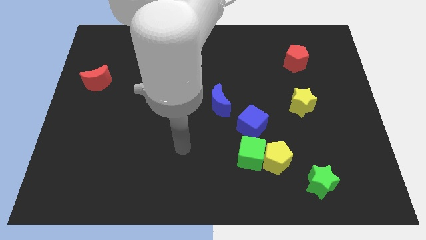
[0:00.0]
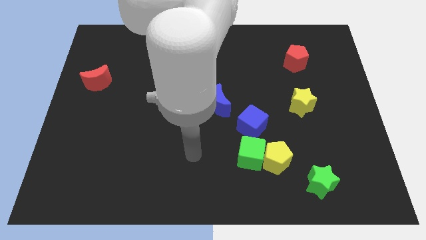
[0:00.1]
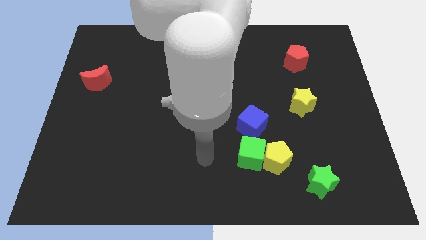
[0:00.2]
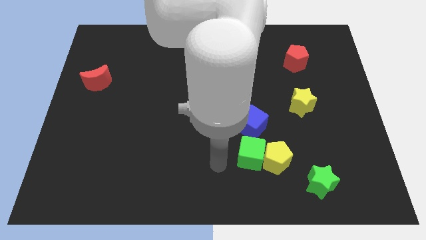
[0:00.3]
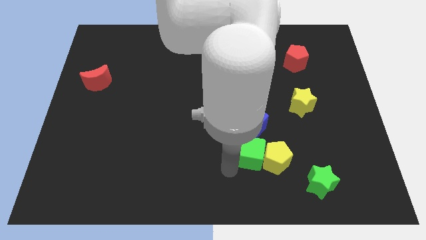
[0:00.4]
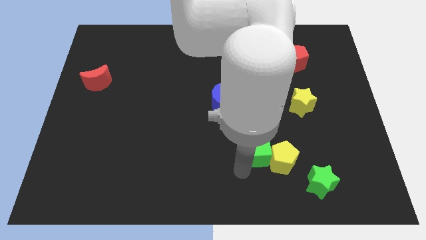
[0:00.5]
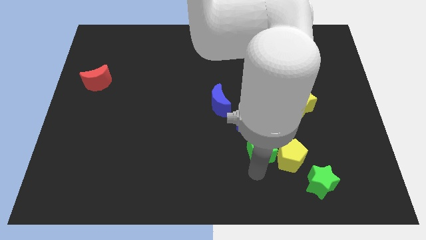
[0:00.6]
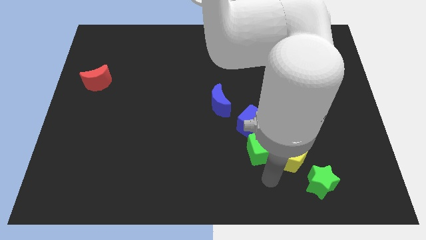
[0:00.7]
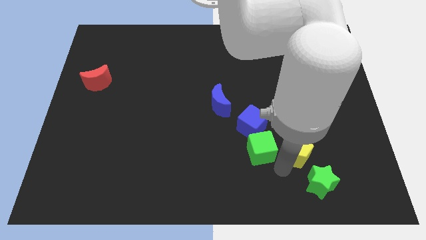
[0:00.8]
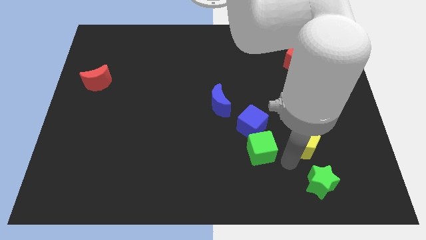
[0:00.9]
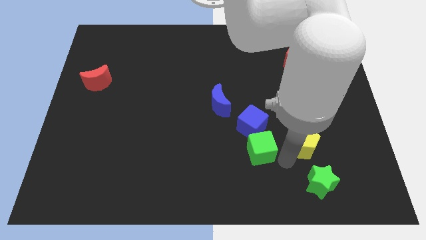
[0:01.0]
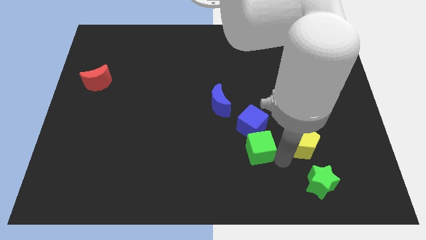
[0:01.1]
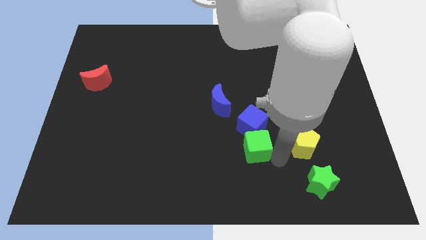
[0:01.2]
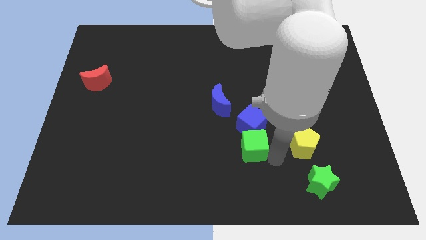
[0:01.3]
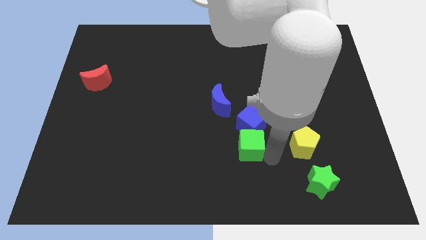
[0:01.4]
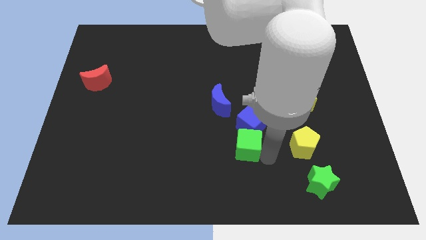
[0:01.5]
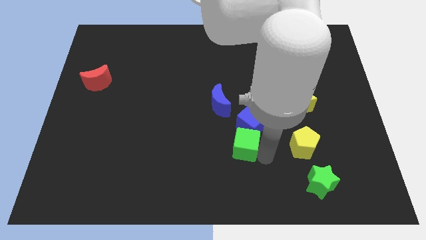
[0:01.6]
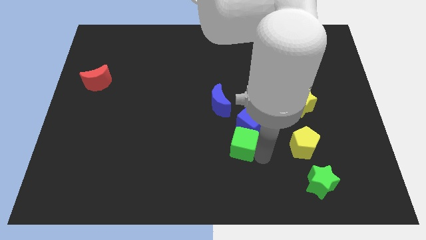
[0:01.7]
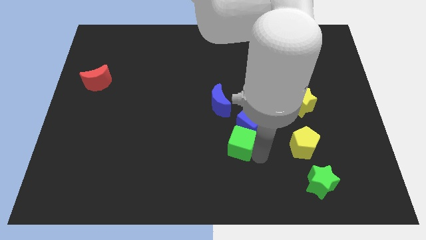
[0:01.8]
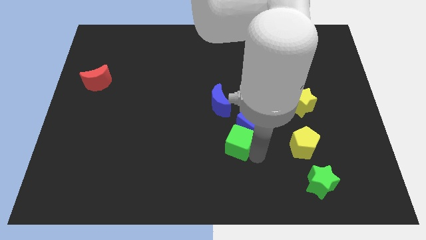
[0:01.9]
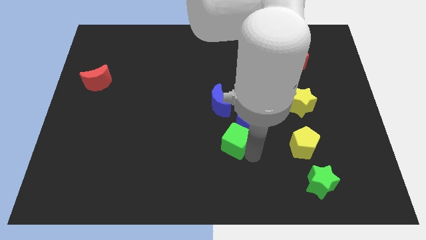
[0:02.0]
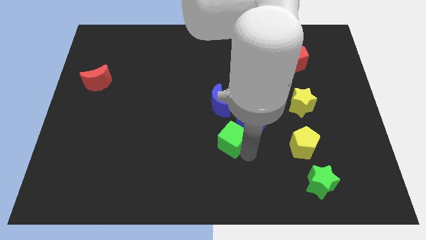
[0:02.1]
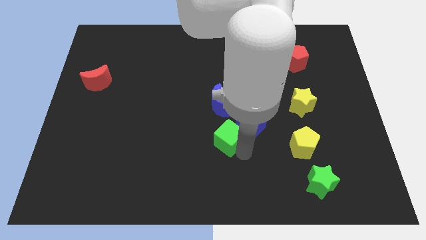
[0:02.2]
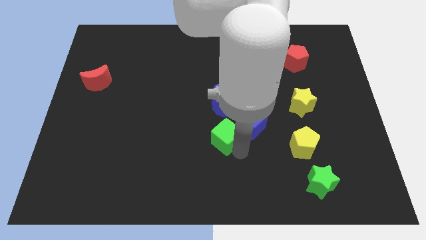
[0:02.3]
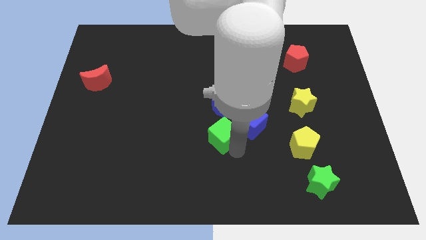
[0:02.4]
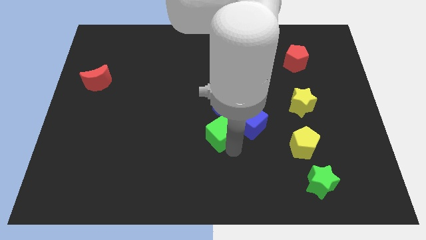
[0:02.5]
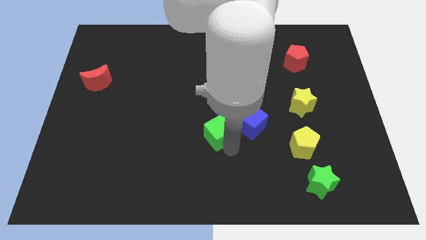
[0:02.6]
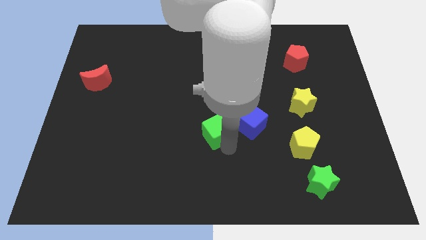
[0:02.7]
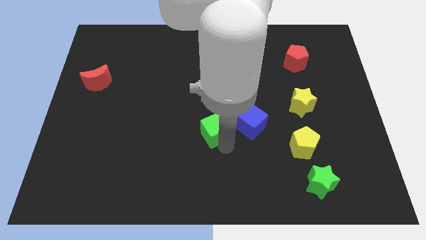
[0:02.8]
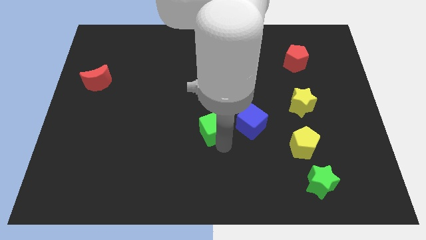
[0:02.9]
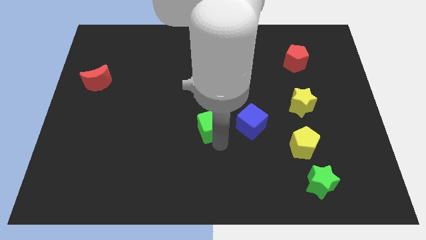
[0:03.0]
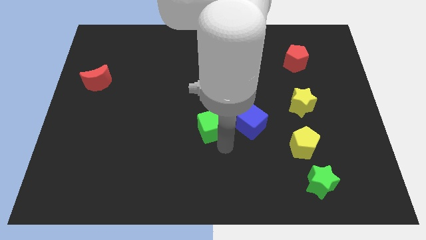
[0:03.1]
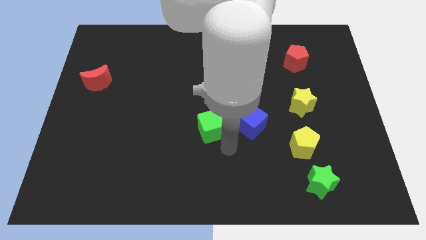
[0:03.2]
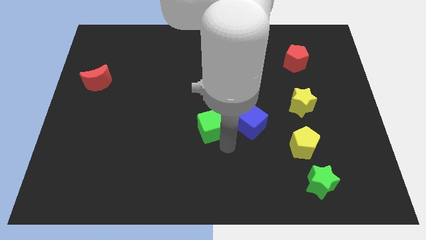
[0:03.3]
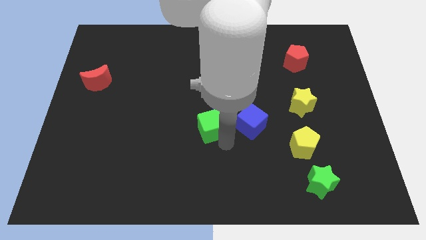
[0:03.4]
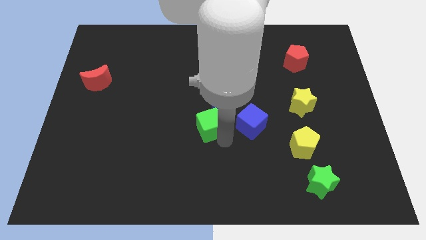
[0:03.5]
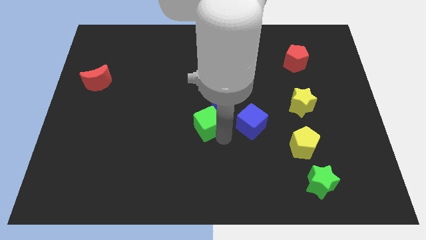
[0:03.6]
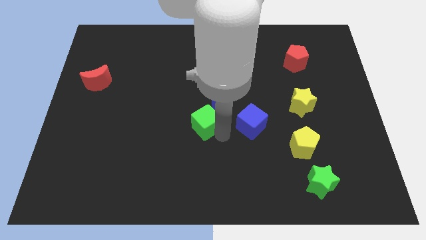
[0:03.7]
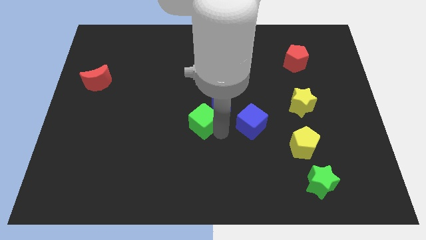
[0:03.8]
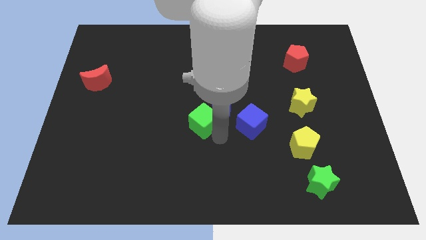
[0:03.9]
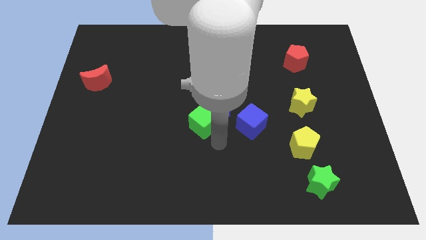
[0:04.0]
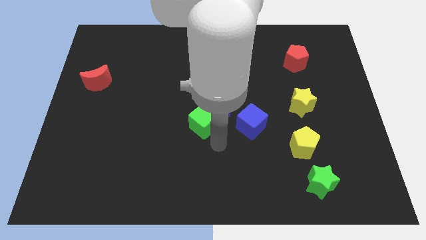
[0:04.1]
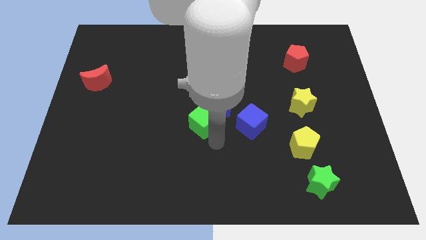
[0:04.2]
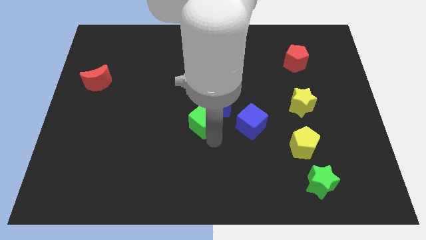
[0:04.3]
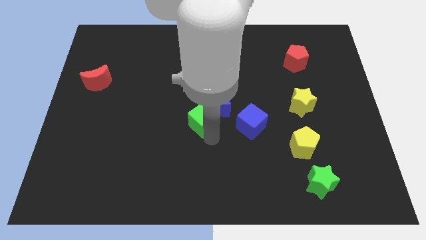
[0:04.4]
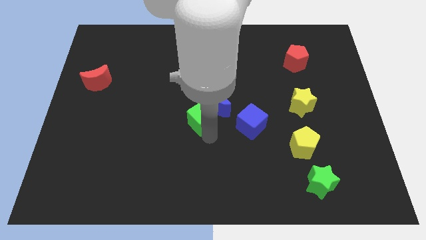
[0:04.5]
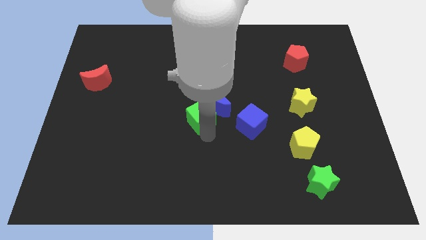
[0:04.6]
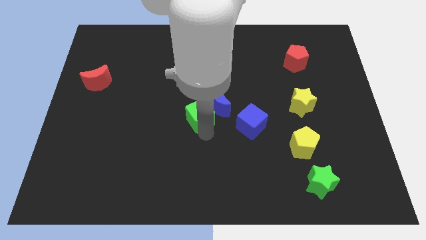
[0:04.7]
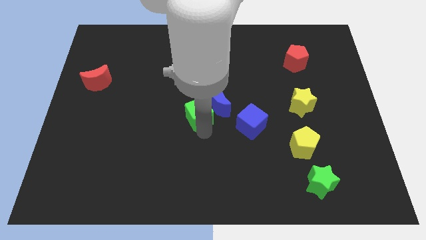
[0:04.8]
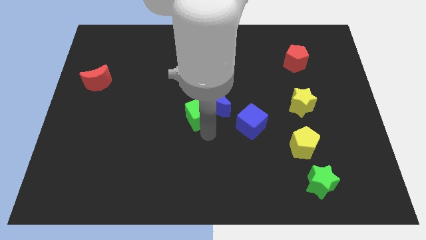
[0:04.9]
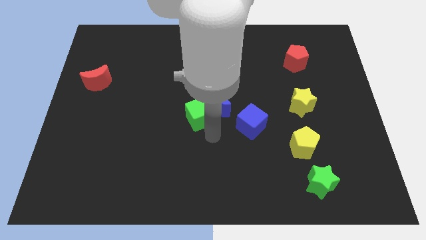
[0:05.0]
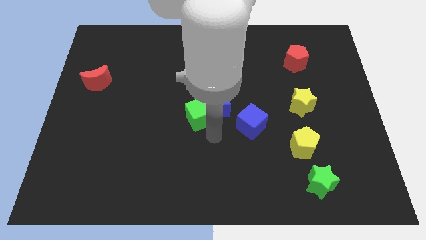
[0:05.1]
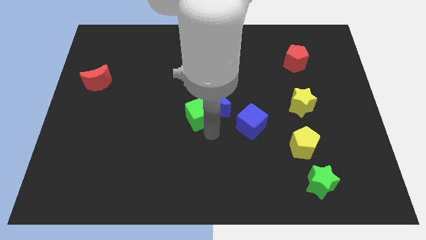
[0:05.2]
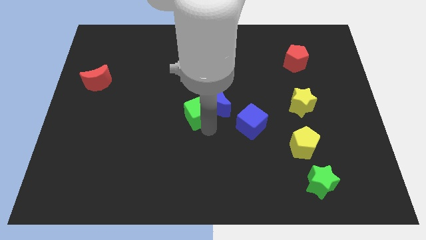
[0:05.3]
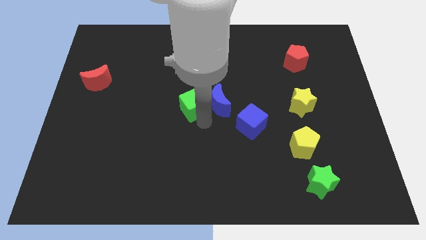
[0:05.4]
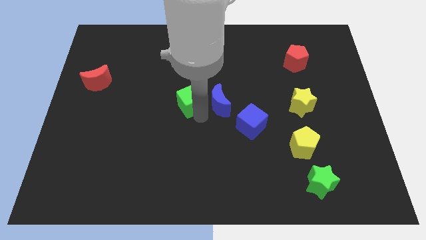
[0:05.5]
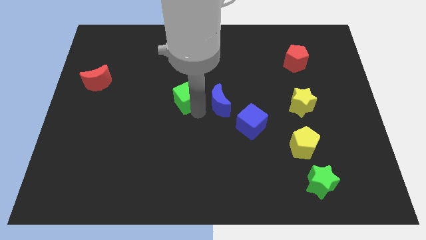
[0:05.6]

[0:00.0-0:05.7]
move the green cube upwards and to the left diagonally

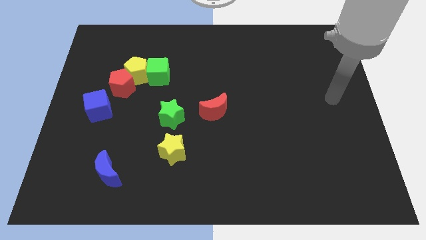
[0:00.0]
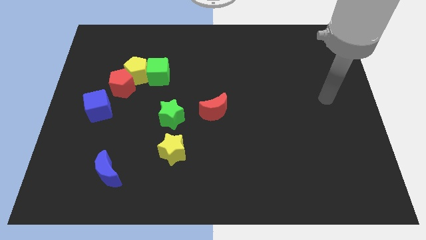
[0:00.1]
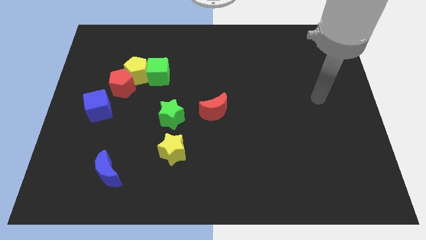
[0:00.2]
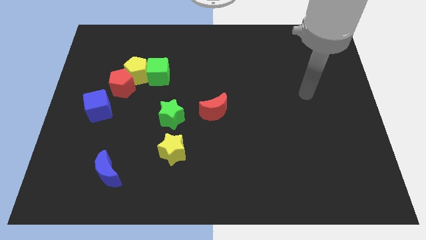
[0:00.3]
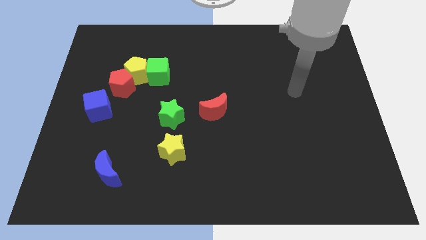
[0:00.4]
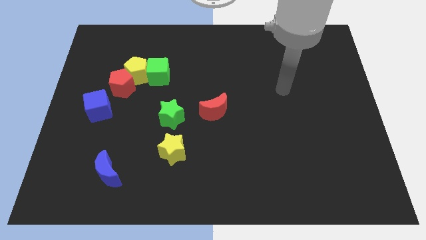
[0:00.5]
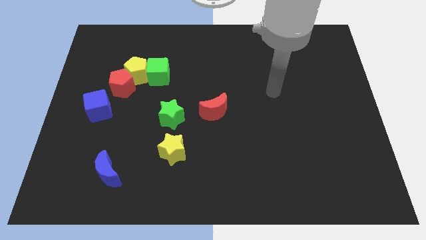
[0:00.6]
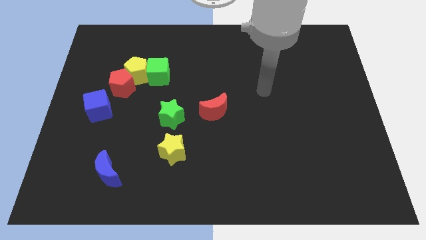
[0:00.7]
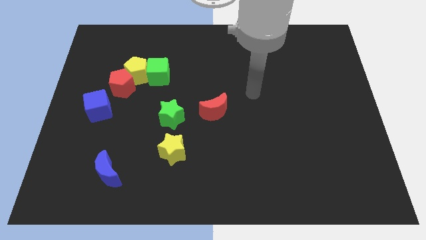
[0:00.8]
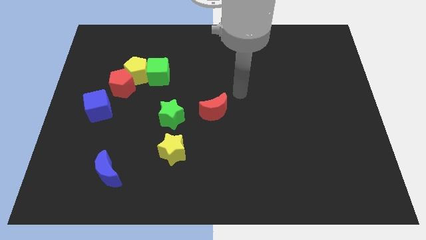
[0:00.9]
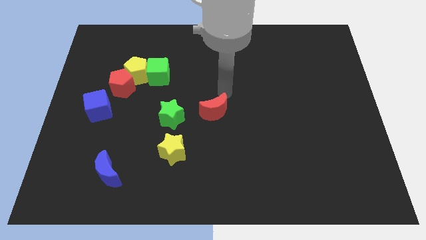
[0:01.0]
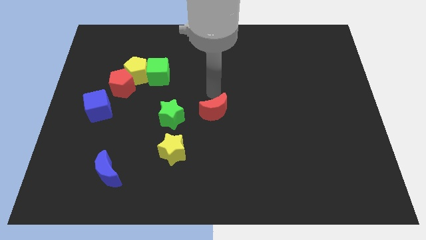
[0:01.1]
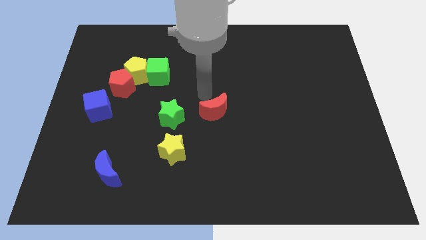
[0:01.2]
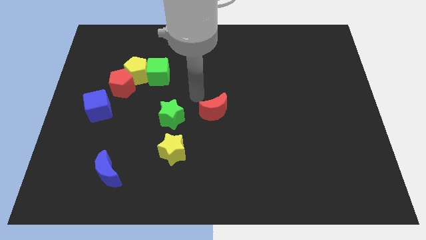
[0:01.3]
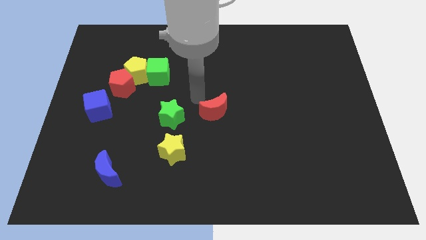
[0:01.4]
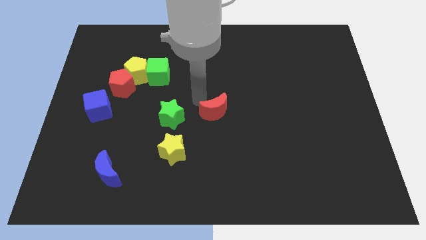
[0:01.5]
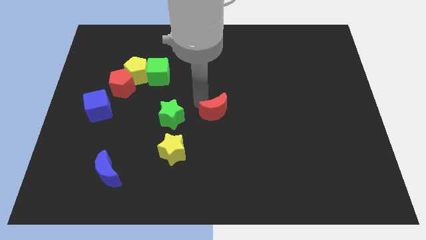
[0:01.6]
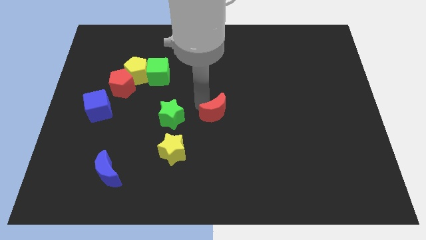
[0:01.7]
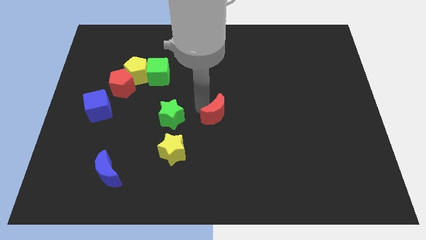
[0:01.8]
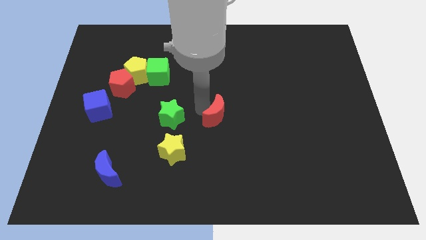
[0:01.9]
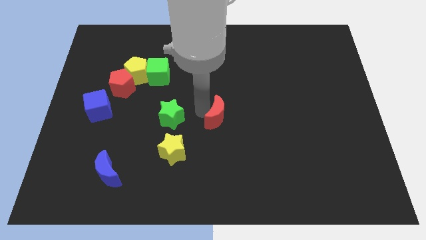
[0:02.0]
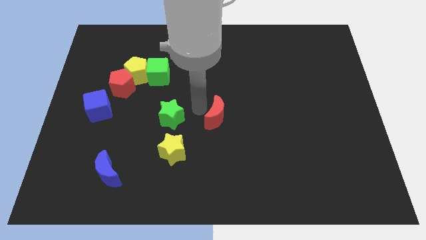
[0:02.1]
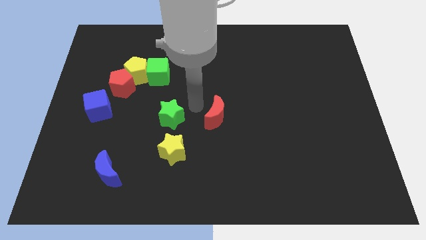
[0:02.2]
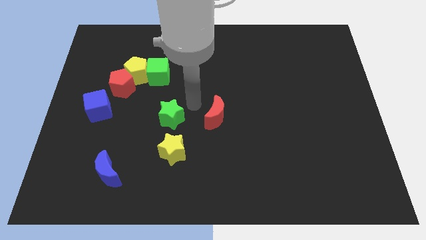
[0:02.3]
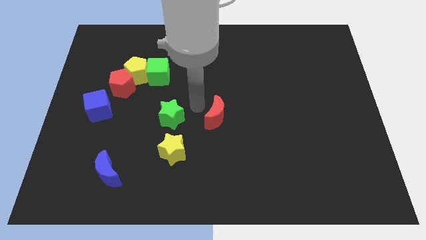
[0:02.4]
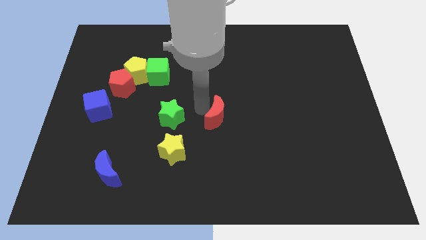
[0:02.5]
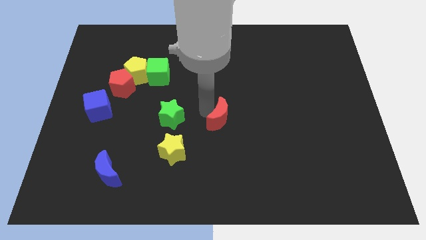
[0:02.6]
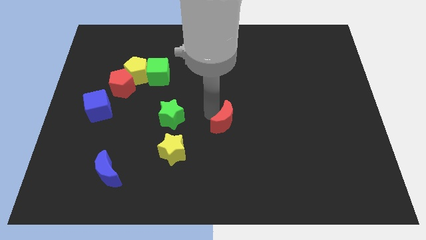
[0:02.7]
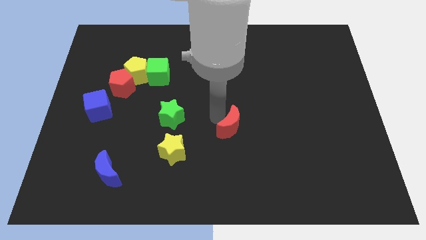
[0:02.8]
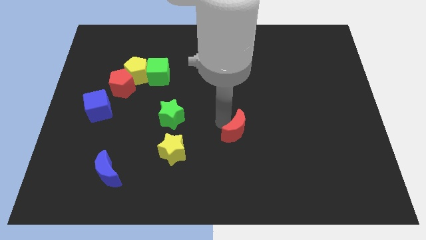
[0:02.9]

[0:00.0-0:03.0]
slide the red moon a bit downwards and right diagonally
